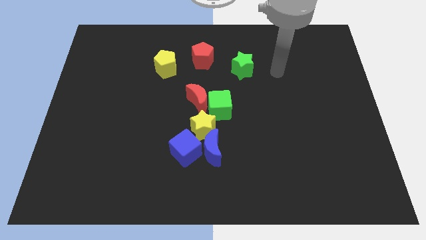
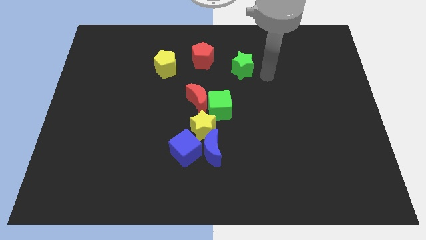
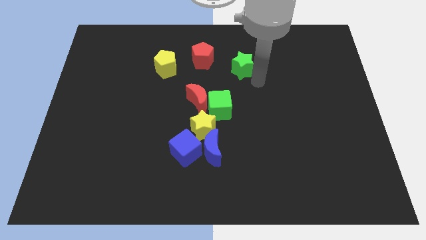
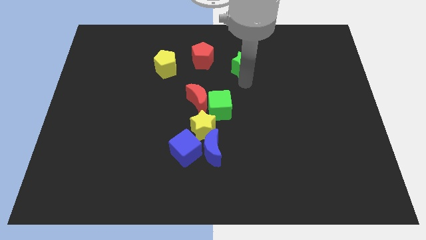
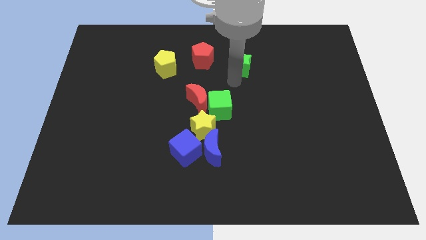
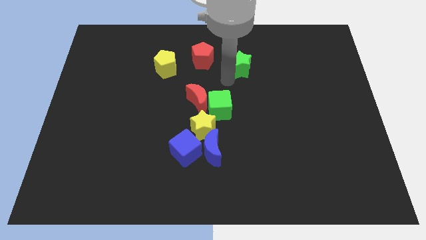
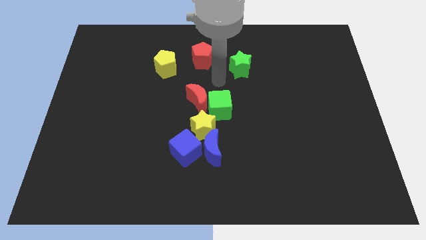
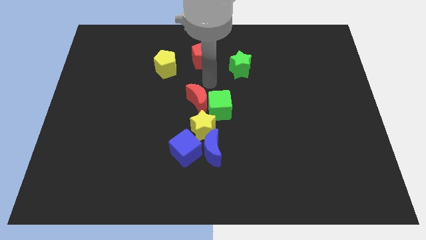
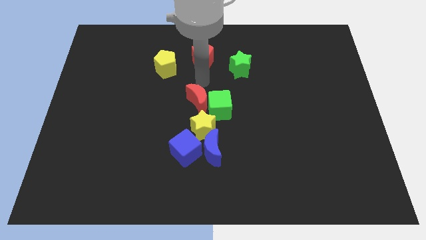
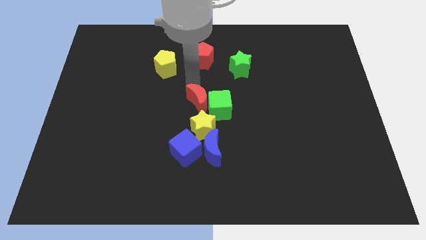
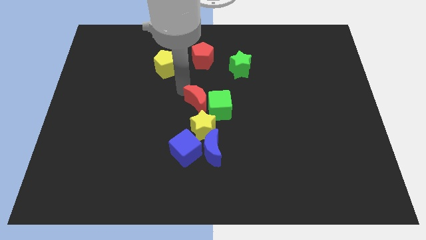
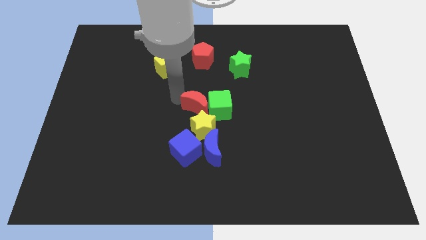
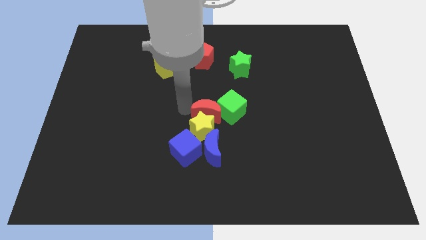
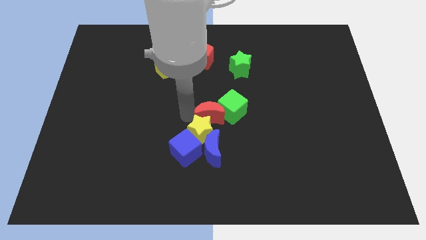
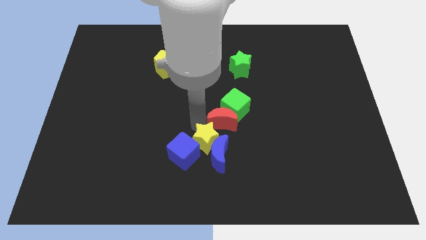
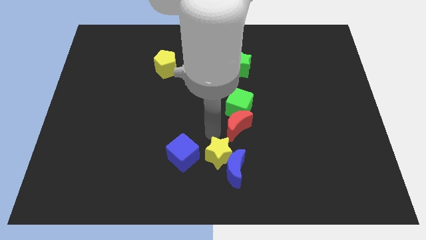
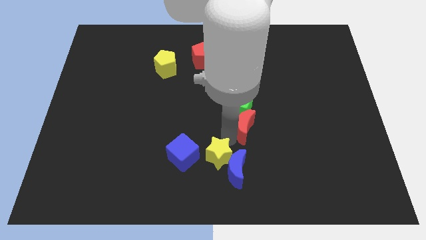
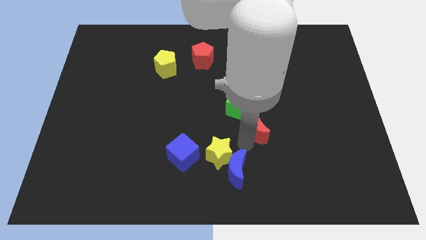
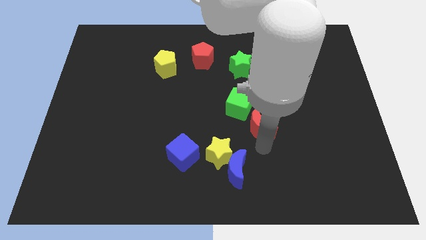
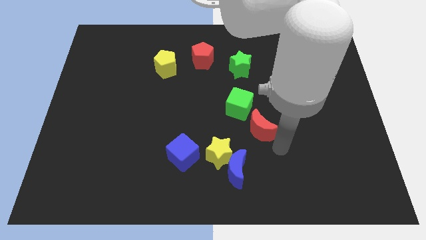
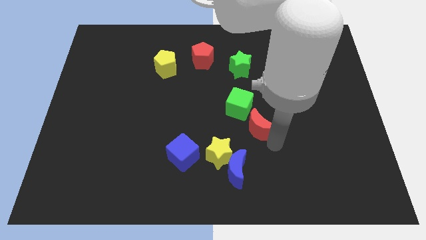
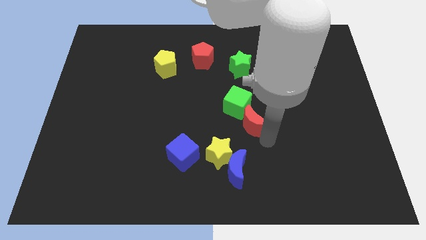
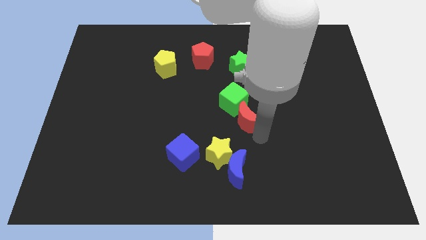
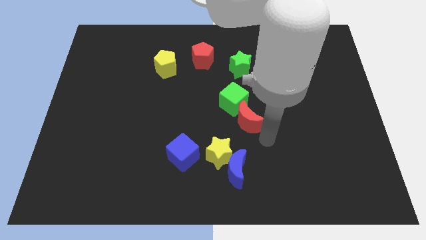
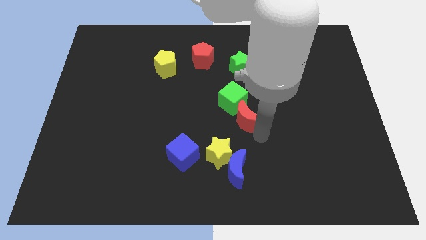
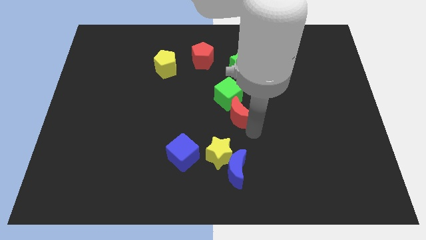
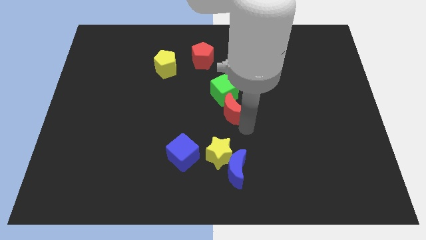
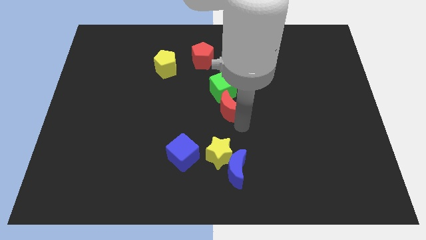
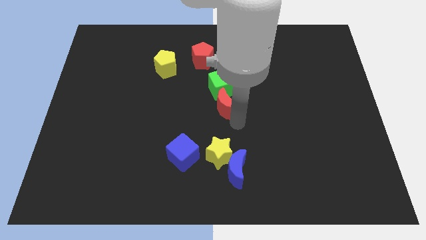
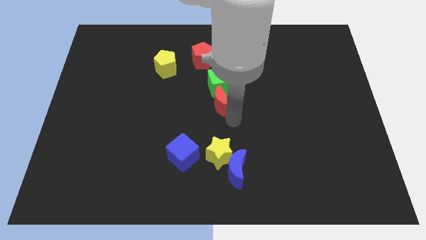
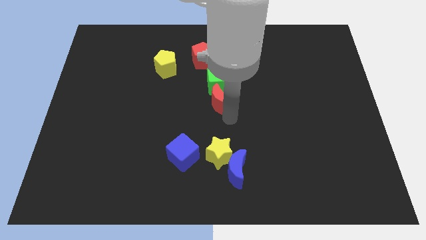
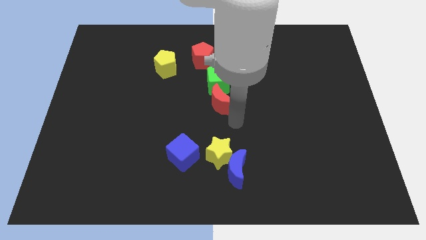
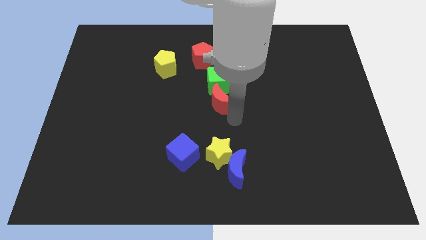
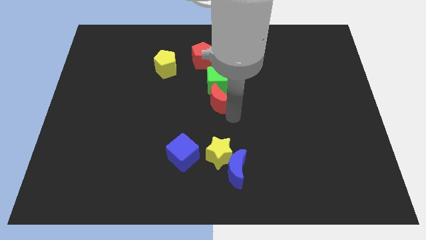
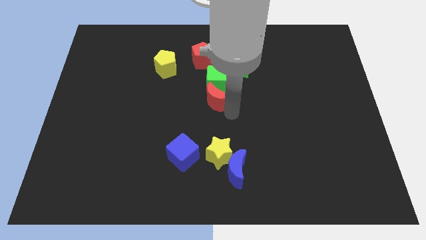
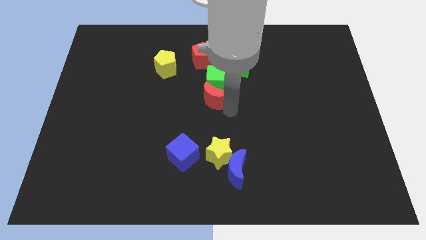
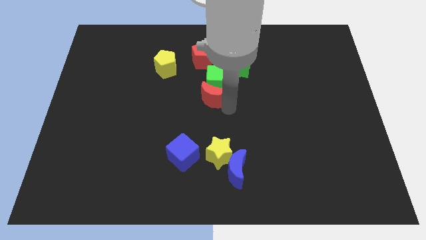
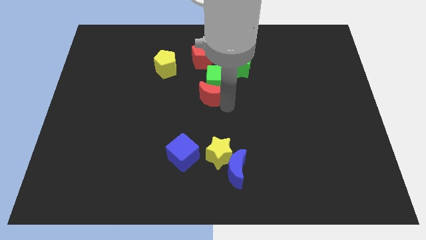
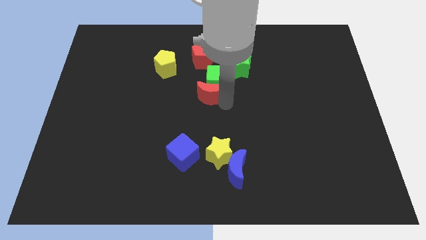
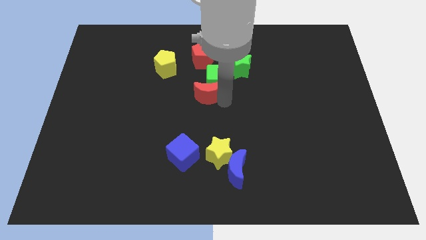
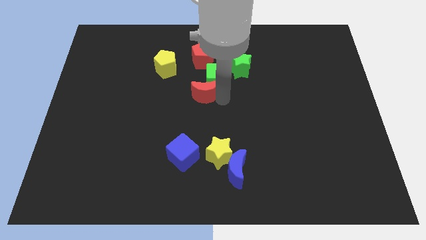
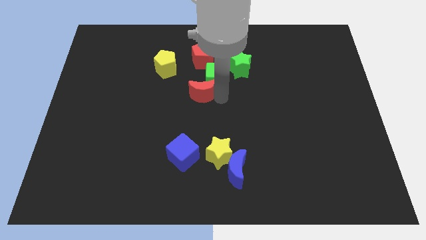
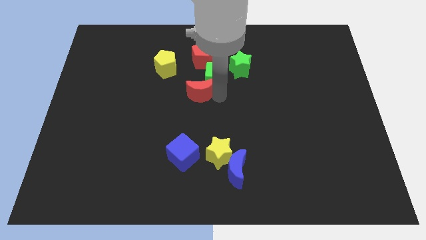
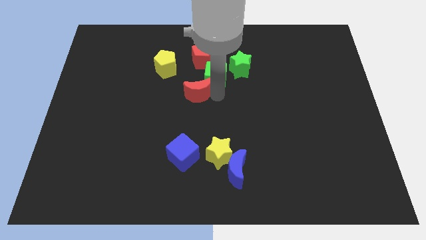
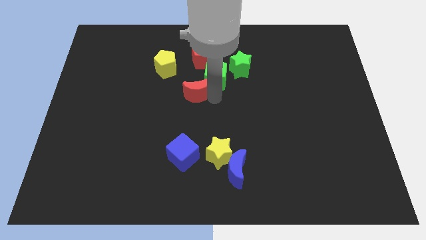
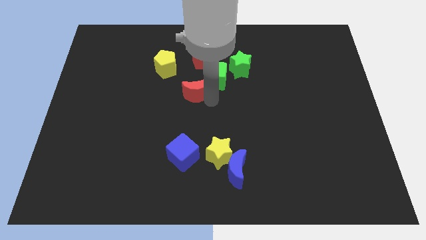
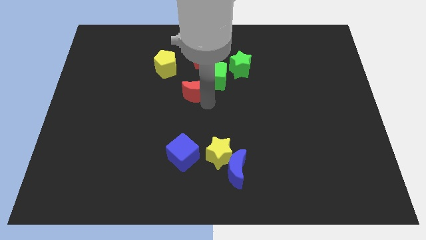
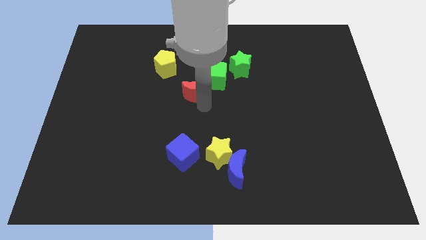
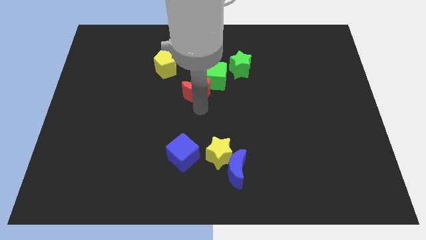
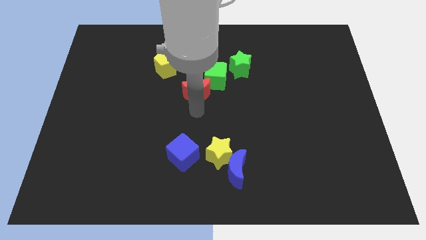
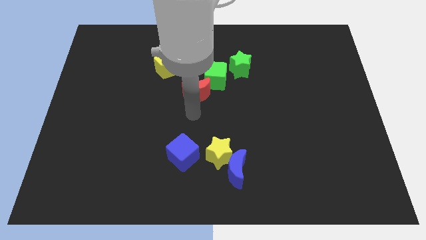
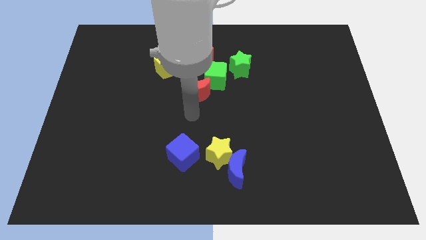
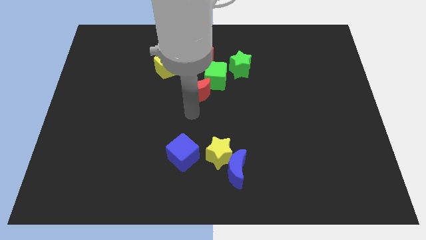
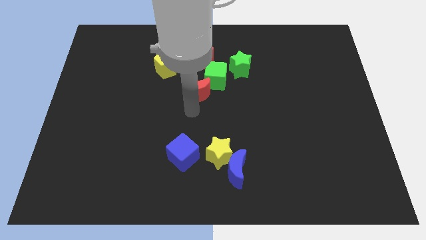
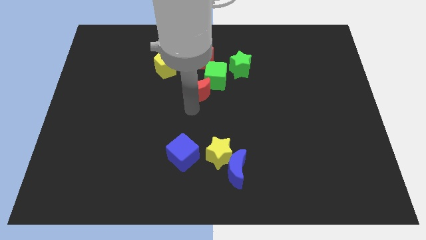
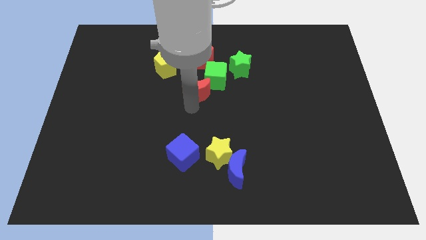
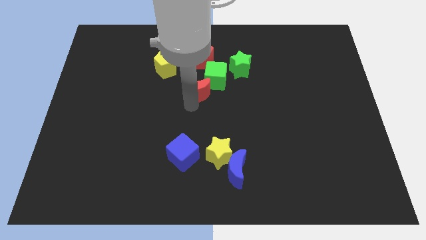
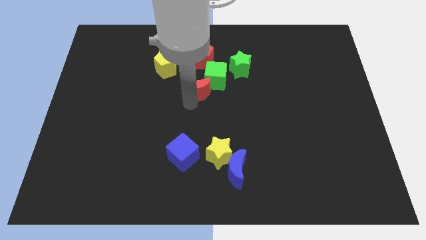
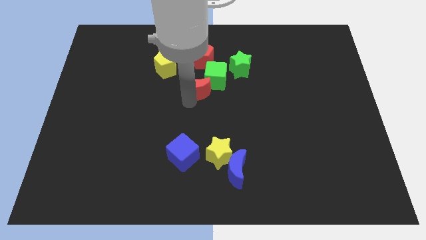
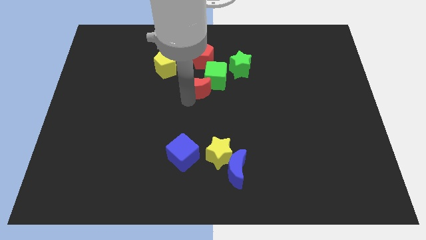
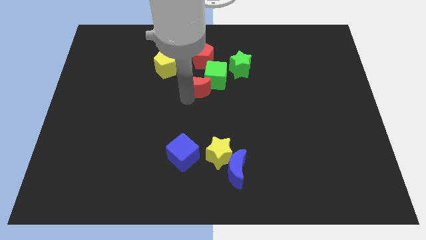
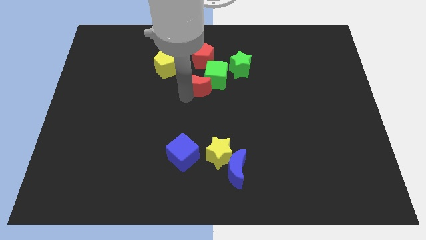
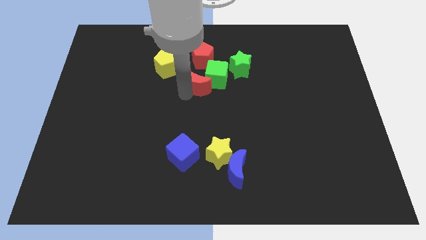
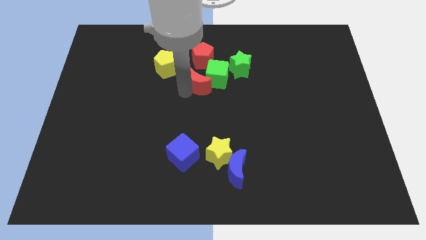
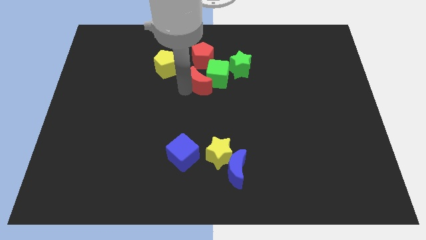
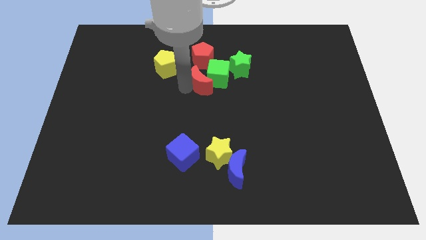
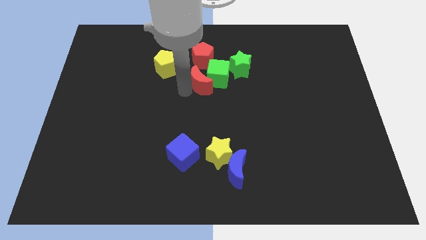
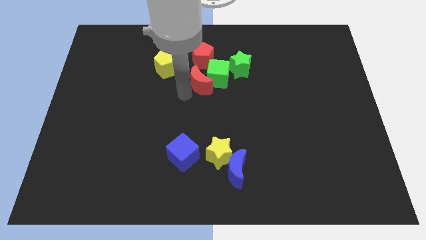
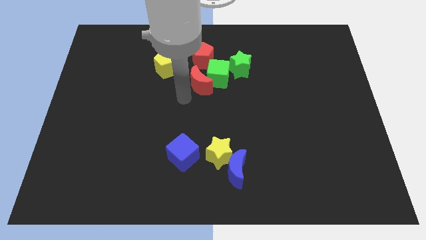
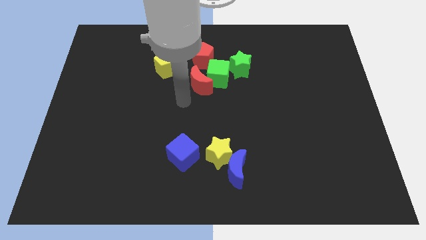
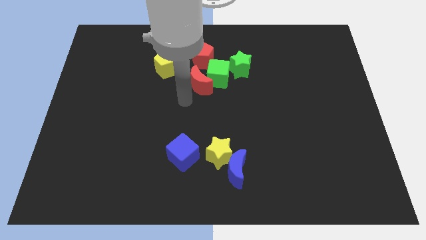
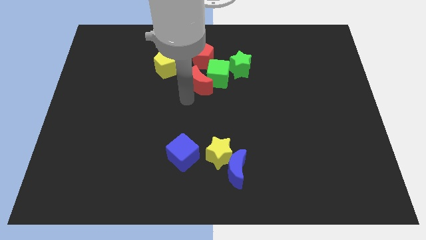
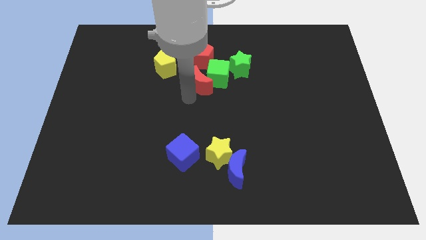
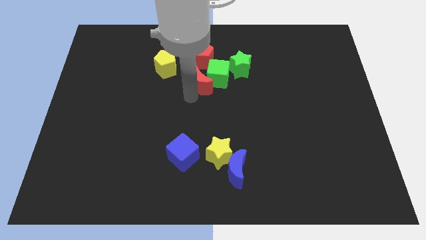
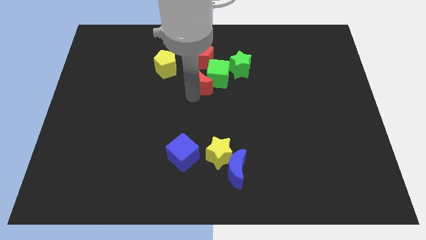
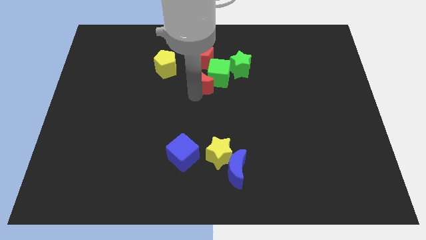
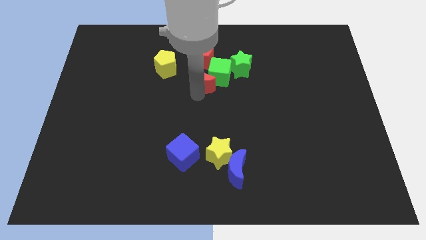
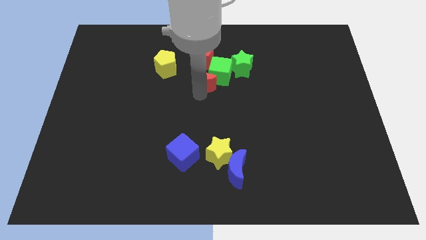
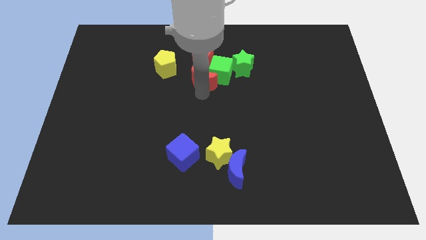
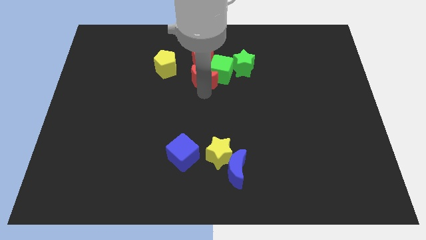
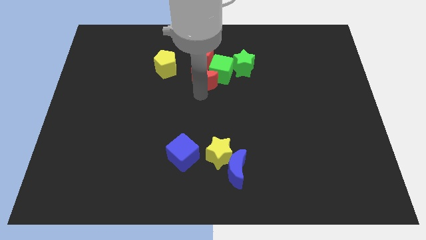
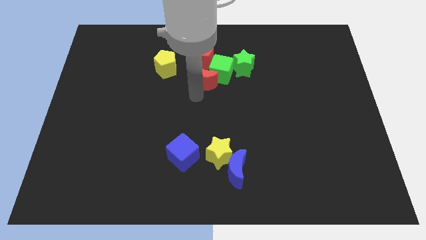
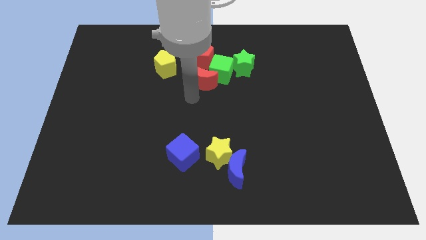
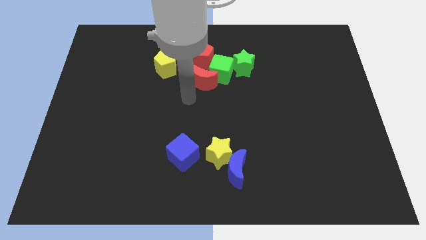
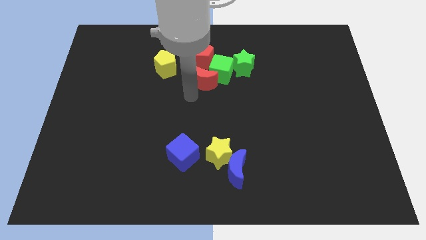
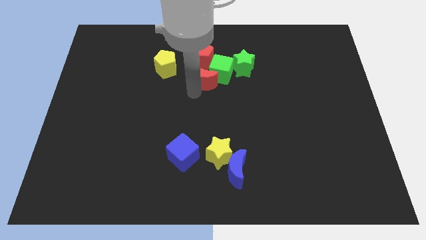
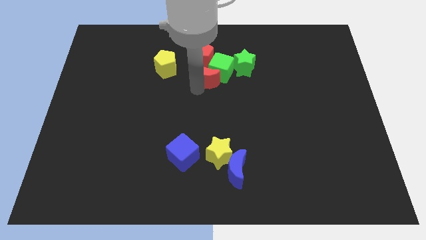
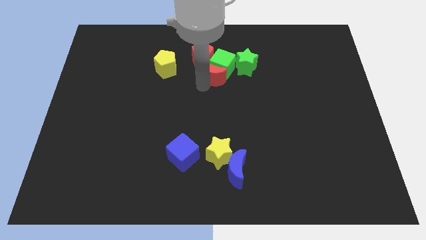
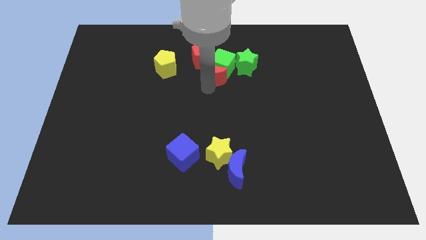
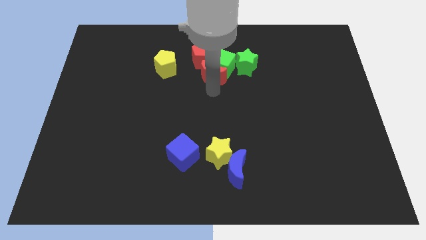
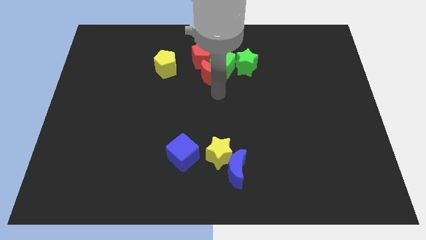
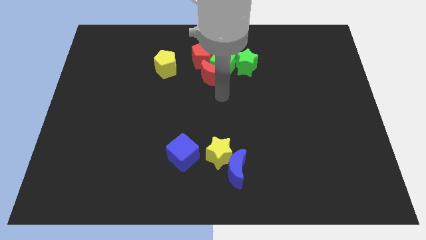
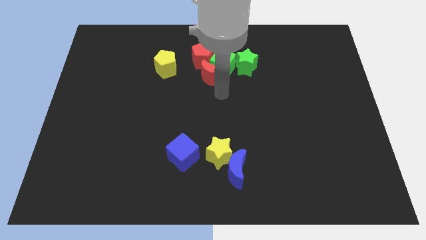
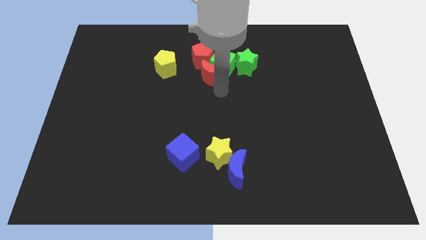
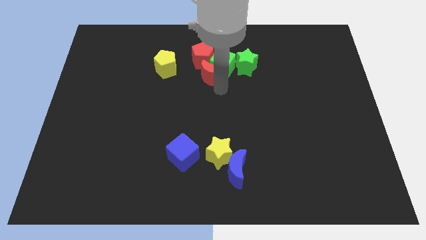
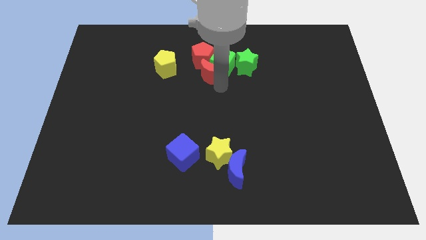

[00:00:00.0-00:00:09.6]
push the red moon next to the red pentagon
